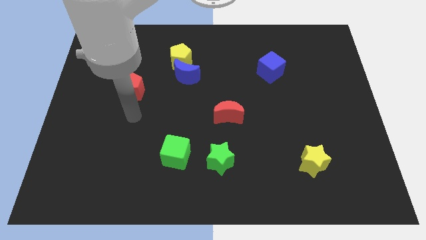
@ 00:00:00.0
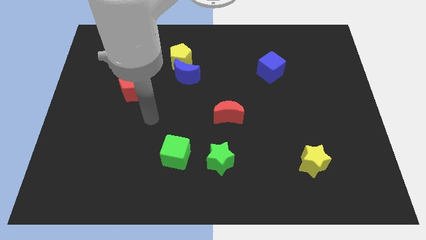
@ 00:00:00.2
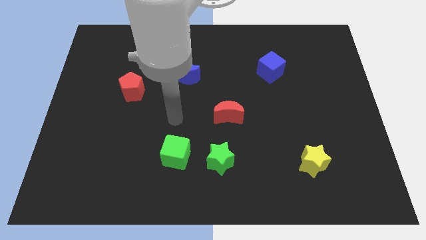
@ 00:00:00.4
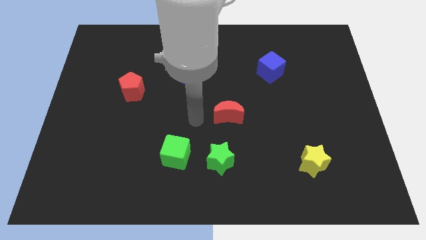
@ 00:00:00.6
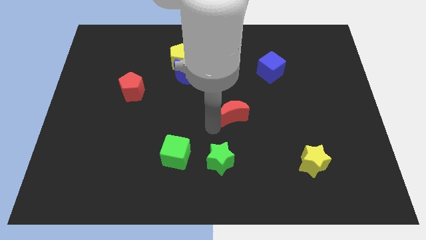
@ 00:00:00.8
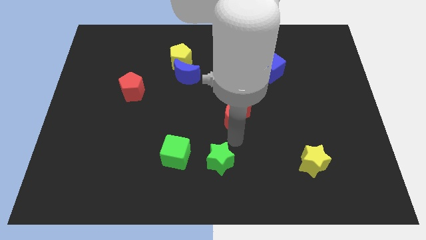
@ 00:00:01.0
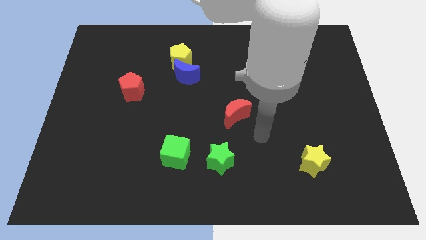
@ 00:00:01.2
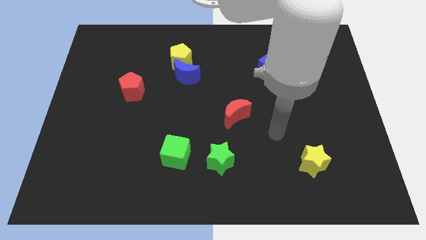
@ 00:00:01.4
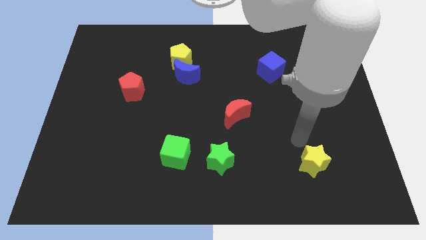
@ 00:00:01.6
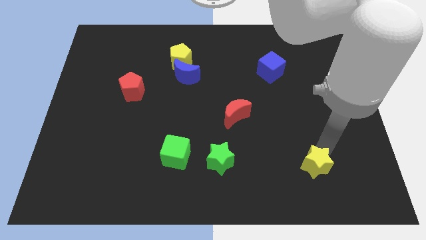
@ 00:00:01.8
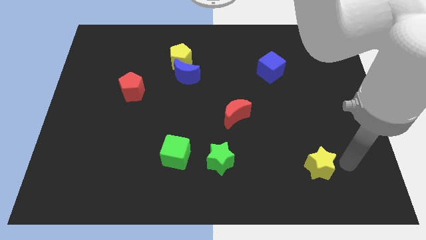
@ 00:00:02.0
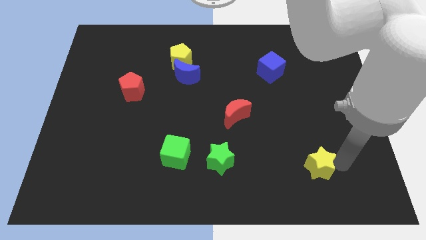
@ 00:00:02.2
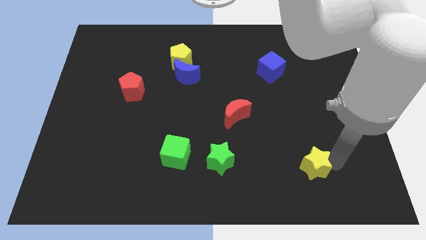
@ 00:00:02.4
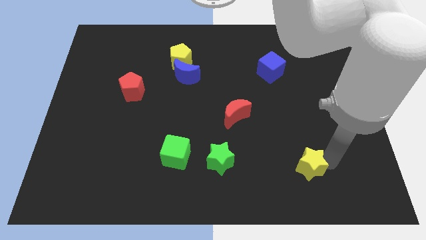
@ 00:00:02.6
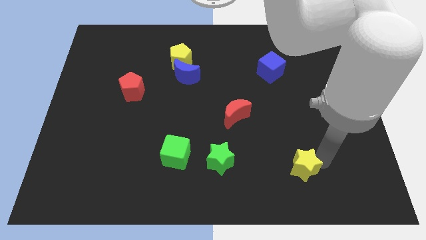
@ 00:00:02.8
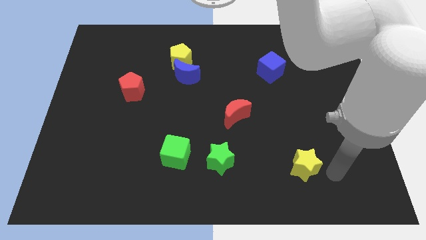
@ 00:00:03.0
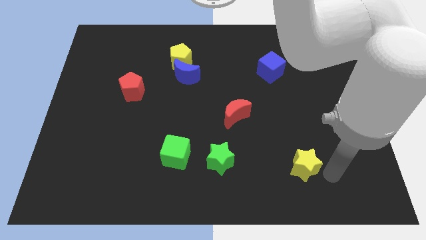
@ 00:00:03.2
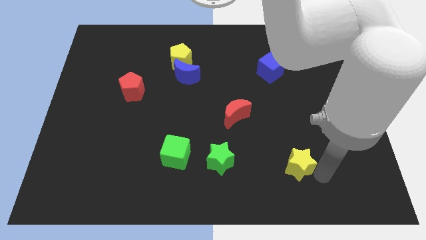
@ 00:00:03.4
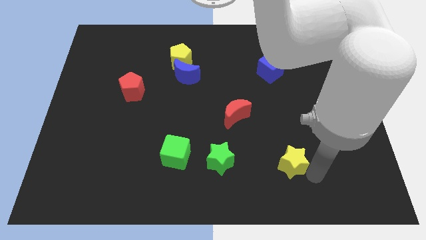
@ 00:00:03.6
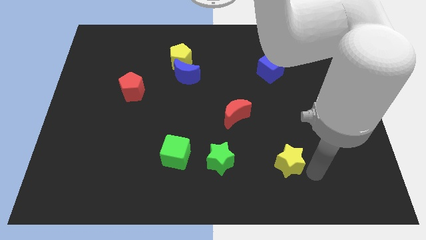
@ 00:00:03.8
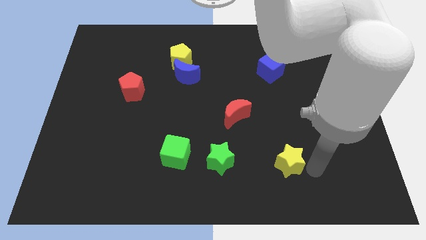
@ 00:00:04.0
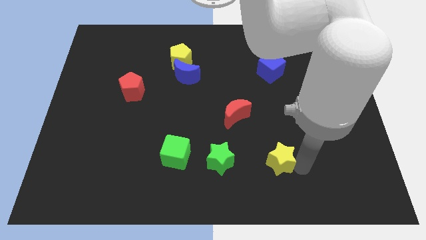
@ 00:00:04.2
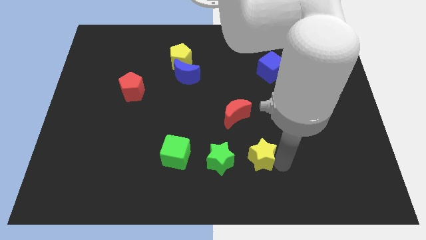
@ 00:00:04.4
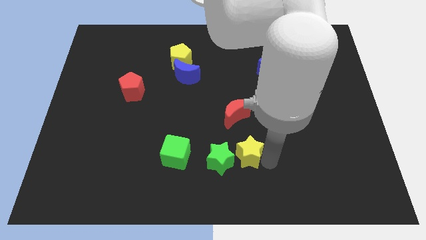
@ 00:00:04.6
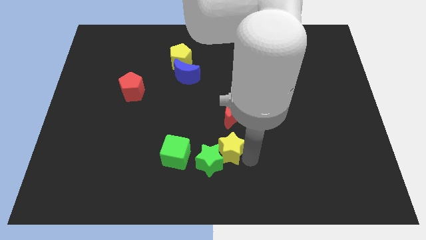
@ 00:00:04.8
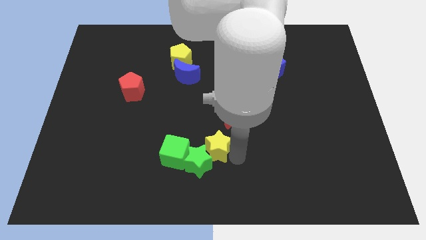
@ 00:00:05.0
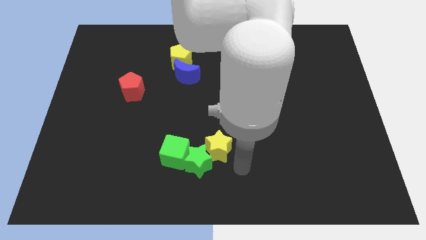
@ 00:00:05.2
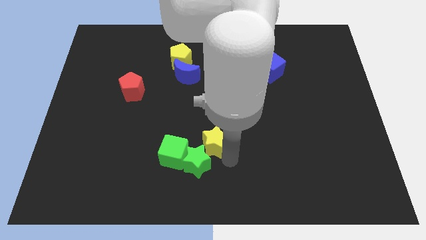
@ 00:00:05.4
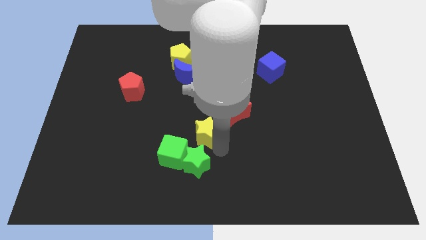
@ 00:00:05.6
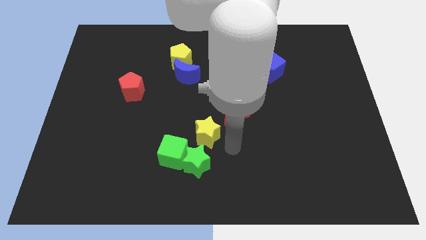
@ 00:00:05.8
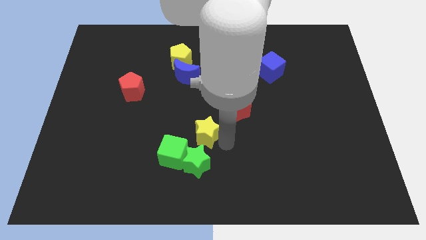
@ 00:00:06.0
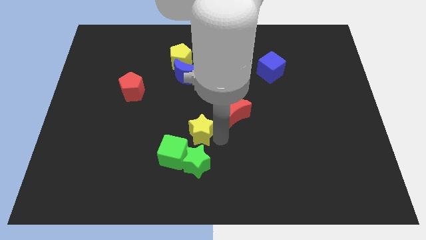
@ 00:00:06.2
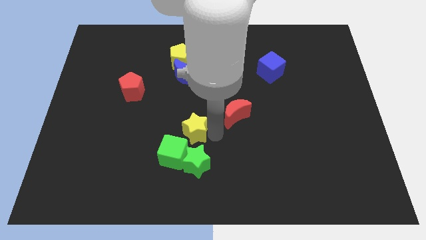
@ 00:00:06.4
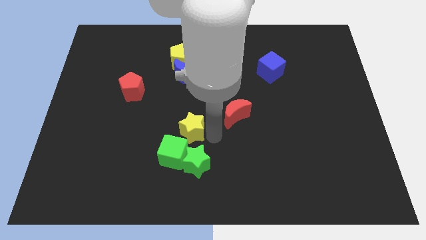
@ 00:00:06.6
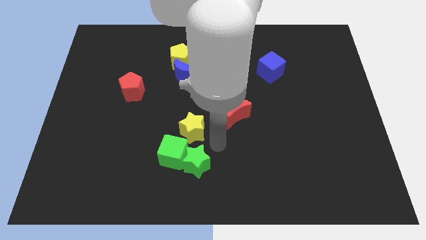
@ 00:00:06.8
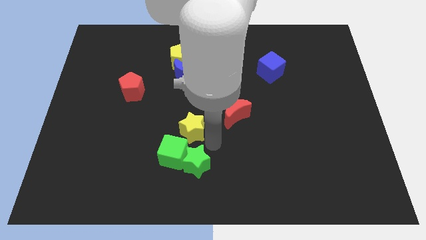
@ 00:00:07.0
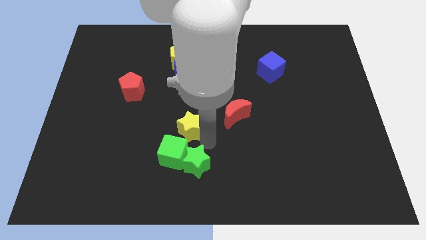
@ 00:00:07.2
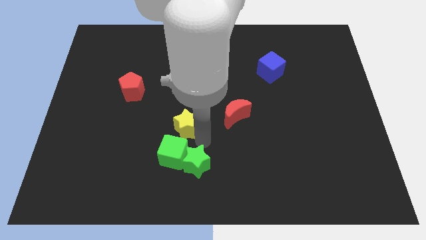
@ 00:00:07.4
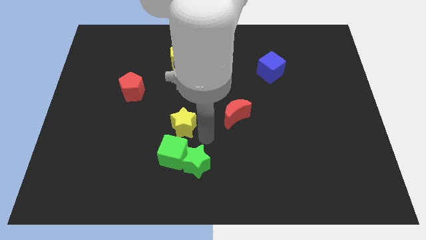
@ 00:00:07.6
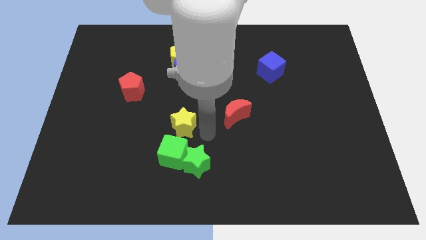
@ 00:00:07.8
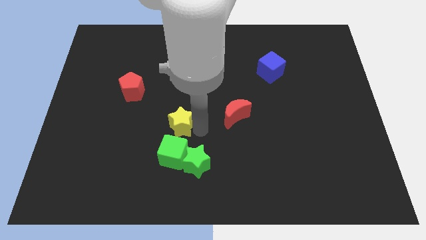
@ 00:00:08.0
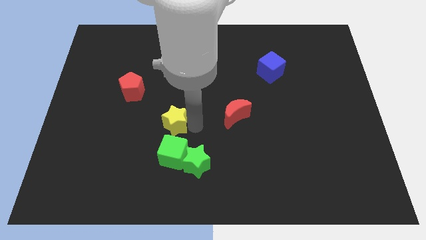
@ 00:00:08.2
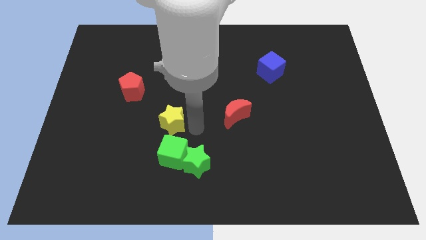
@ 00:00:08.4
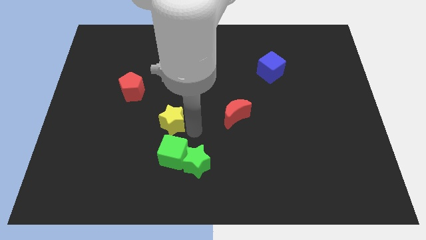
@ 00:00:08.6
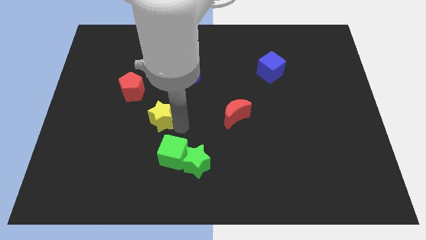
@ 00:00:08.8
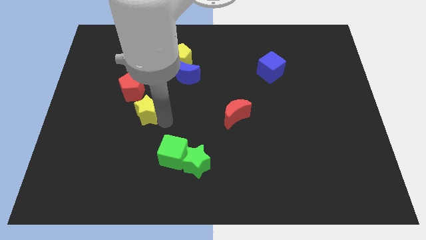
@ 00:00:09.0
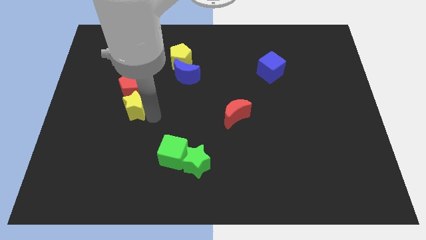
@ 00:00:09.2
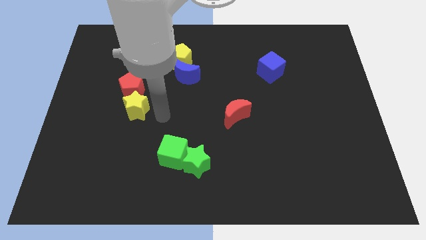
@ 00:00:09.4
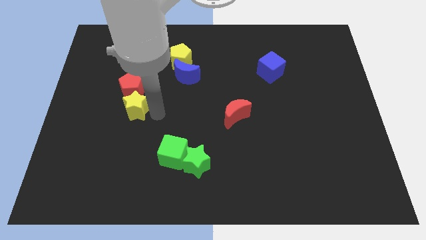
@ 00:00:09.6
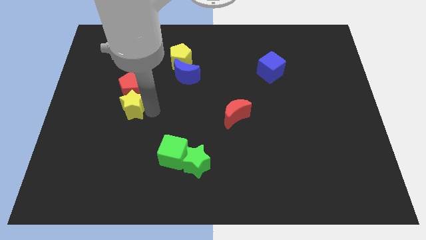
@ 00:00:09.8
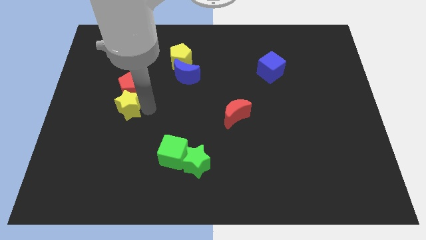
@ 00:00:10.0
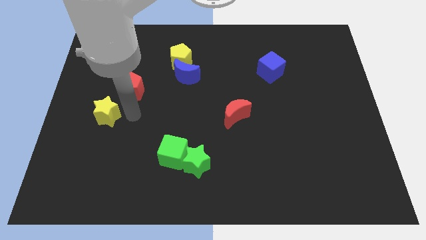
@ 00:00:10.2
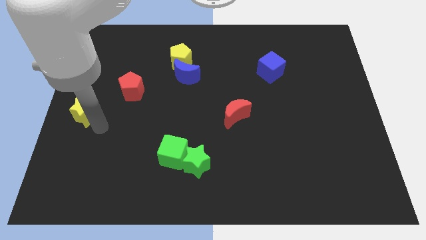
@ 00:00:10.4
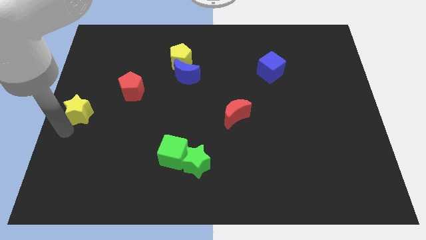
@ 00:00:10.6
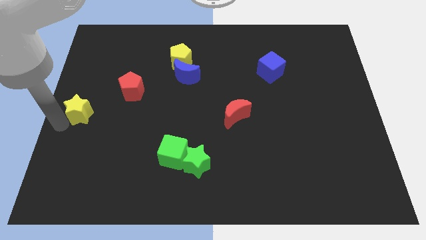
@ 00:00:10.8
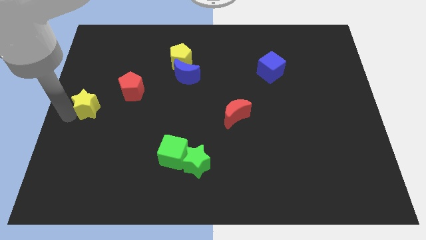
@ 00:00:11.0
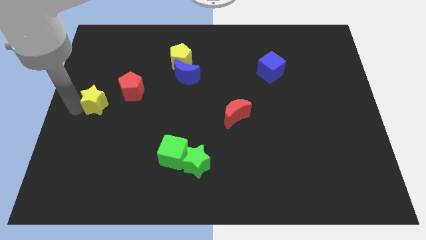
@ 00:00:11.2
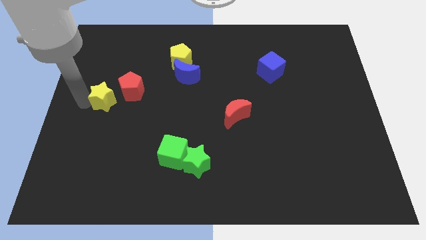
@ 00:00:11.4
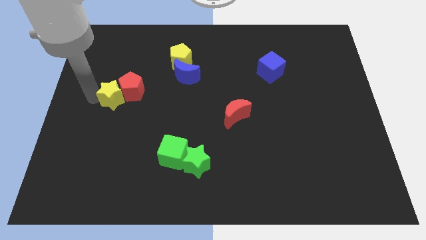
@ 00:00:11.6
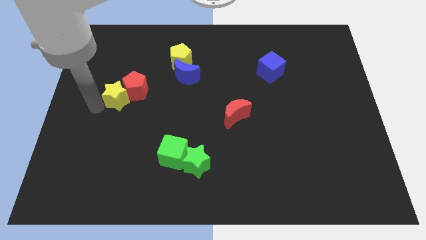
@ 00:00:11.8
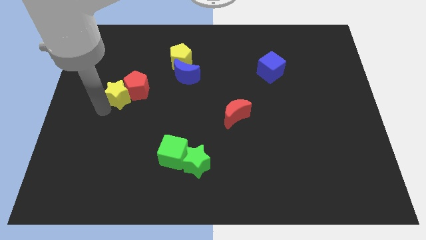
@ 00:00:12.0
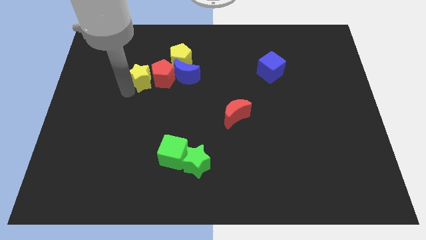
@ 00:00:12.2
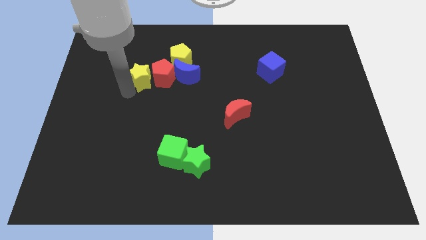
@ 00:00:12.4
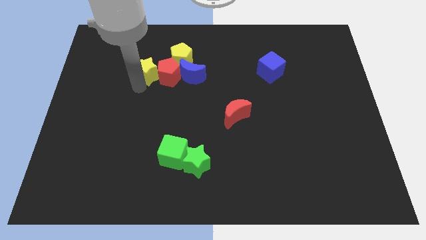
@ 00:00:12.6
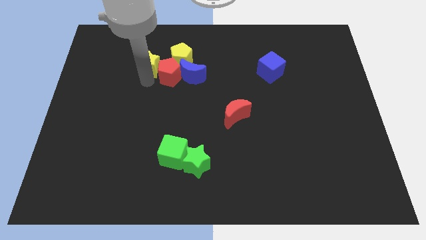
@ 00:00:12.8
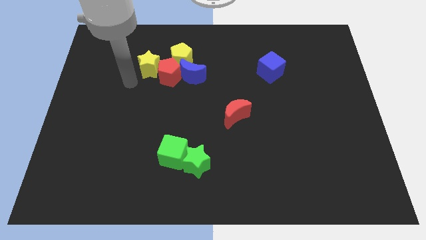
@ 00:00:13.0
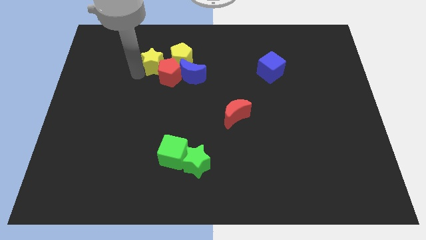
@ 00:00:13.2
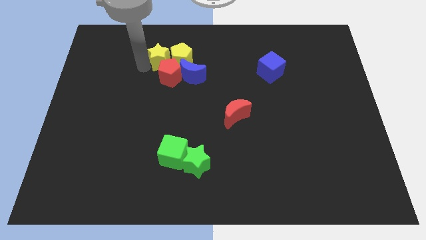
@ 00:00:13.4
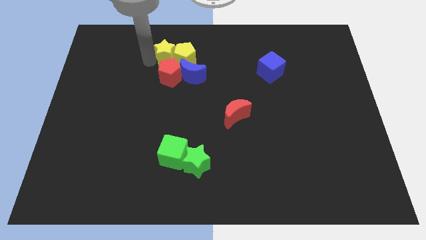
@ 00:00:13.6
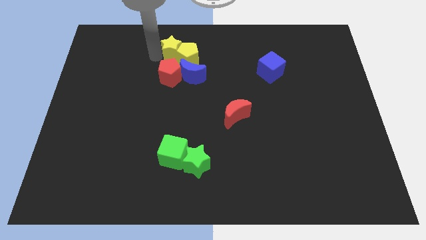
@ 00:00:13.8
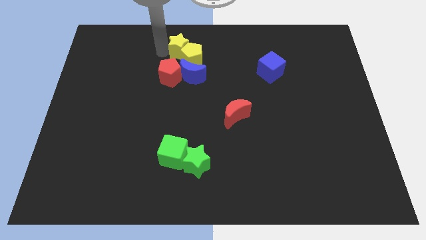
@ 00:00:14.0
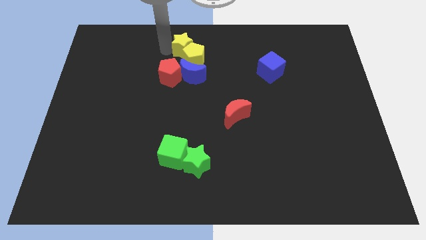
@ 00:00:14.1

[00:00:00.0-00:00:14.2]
slide the yellow star to the top
